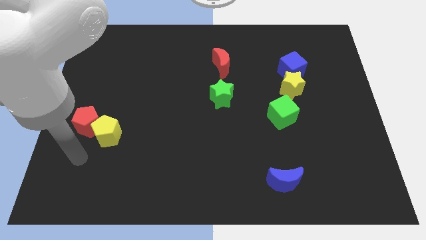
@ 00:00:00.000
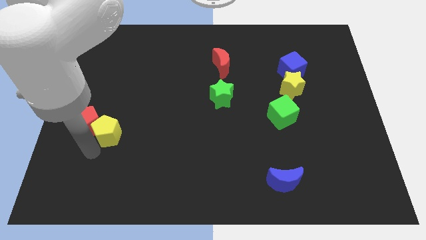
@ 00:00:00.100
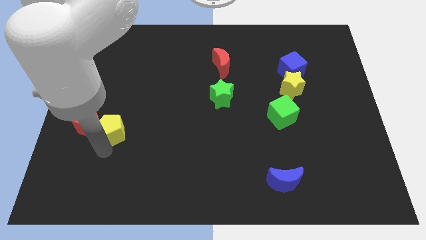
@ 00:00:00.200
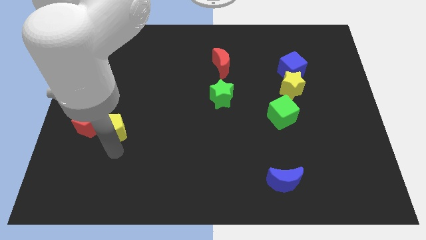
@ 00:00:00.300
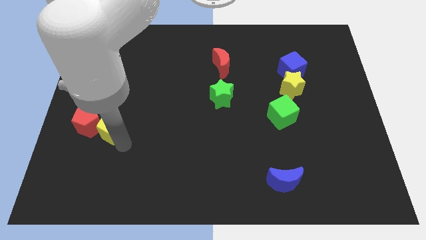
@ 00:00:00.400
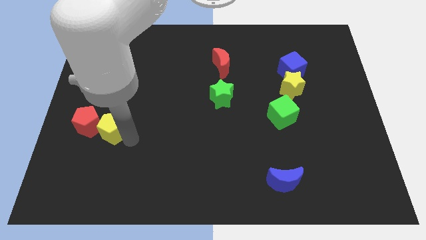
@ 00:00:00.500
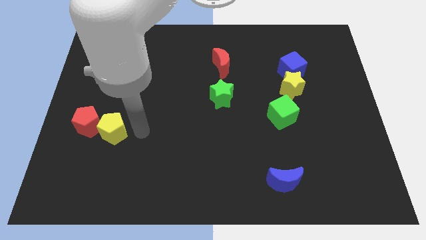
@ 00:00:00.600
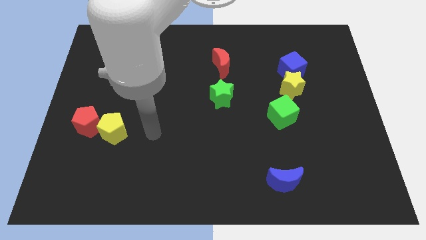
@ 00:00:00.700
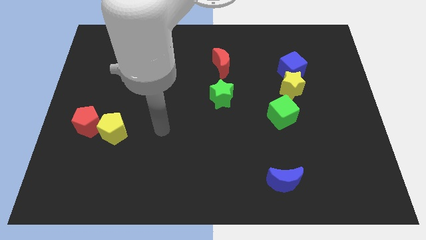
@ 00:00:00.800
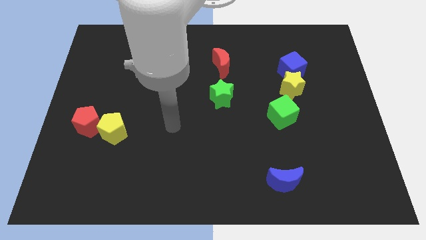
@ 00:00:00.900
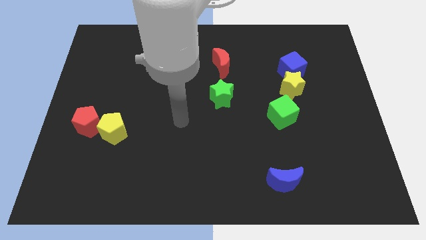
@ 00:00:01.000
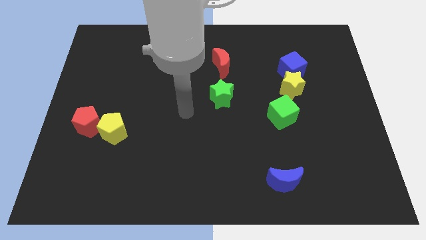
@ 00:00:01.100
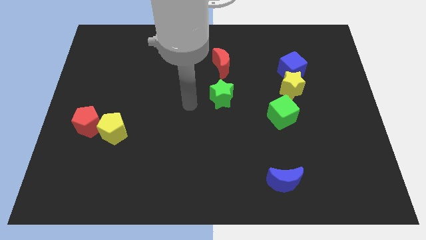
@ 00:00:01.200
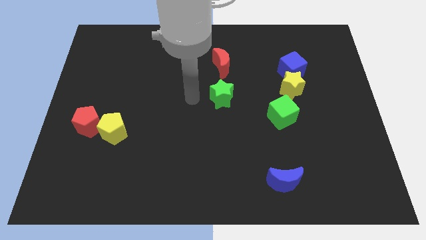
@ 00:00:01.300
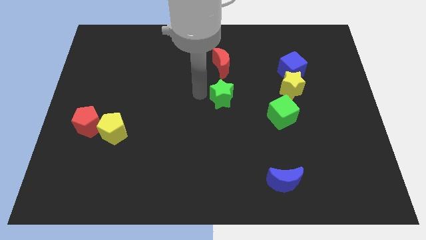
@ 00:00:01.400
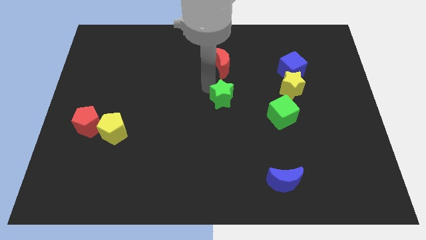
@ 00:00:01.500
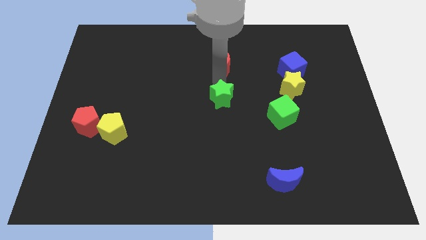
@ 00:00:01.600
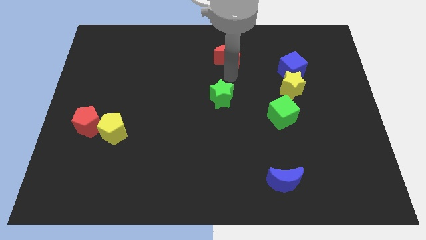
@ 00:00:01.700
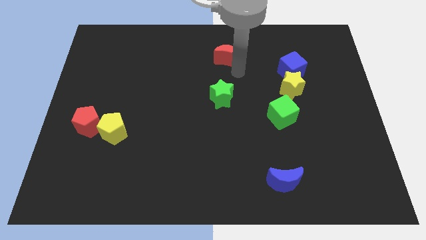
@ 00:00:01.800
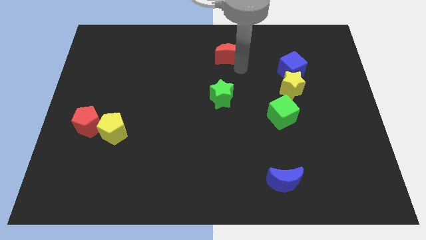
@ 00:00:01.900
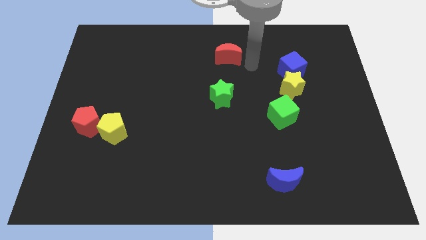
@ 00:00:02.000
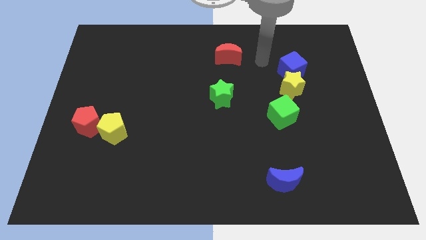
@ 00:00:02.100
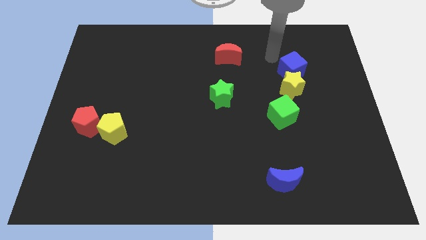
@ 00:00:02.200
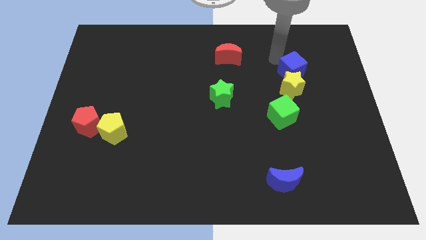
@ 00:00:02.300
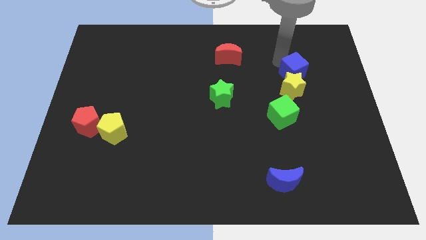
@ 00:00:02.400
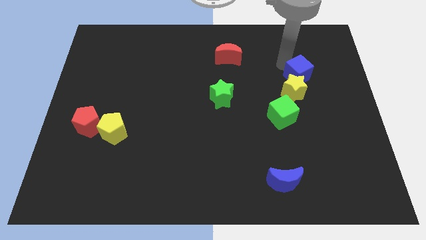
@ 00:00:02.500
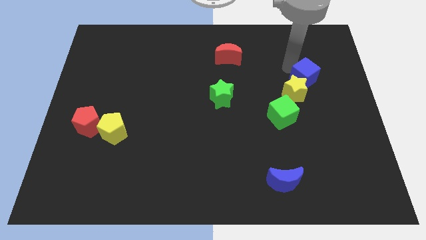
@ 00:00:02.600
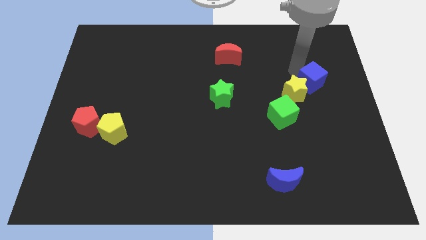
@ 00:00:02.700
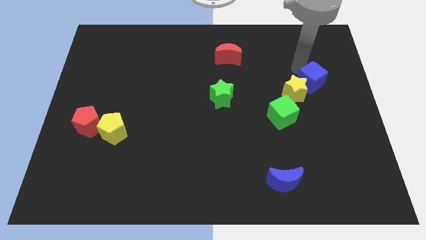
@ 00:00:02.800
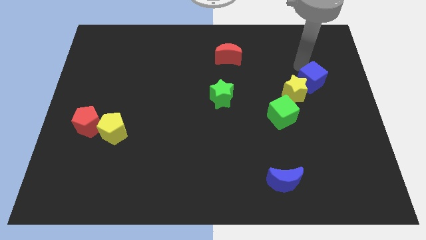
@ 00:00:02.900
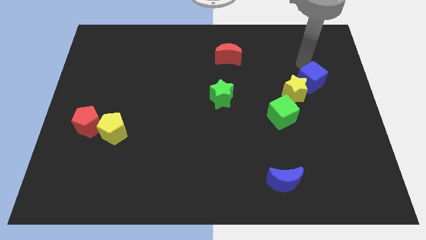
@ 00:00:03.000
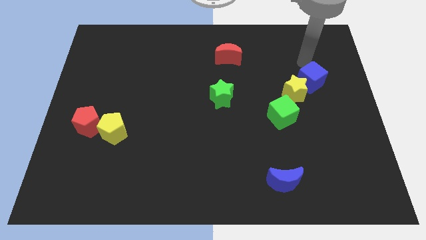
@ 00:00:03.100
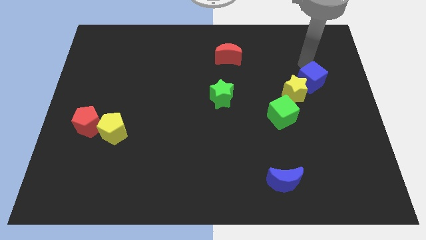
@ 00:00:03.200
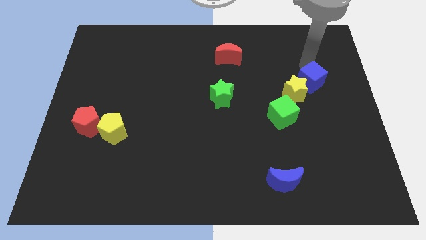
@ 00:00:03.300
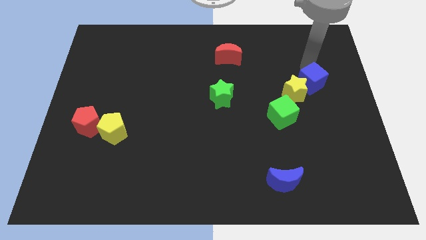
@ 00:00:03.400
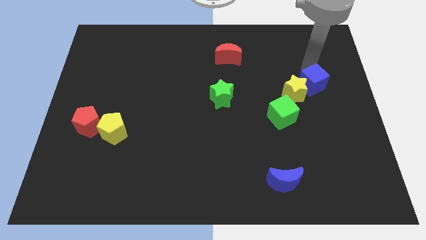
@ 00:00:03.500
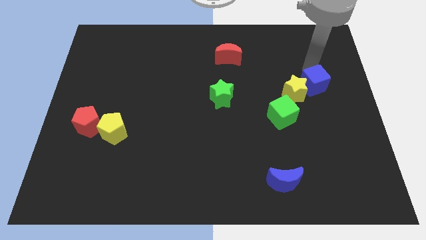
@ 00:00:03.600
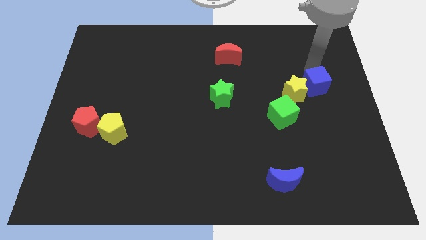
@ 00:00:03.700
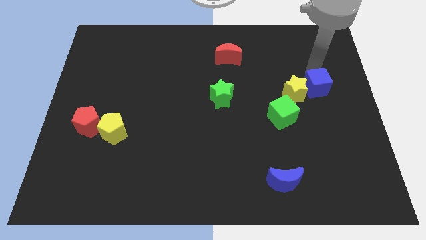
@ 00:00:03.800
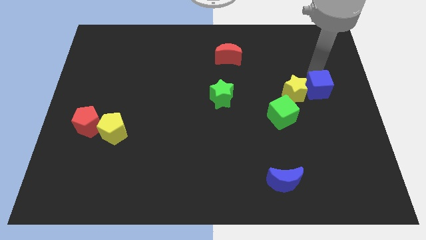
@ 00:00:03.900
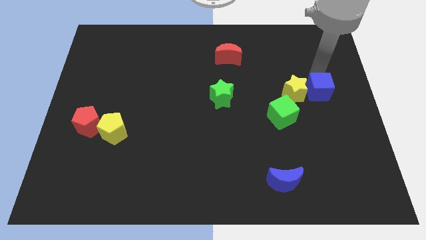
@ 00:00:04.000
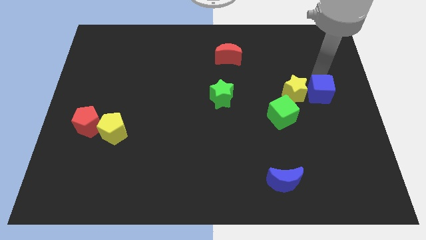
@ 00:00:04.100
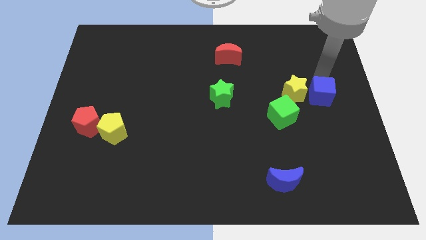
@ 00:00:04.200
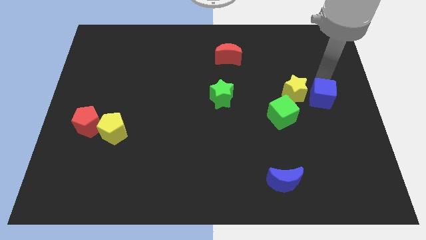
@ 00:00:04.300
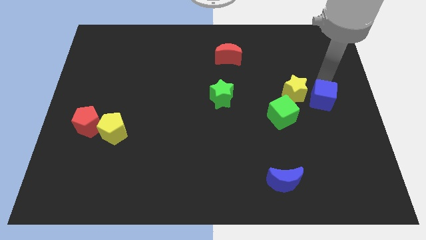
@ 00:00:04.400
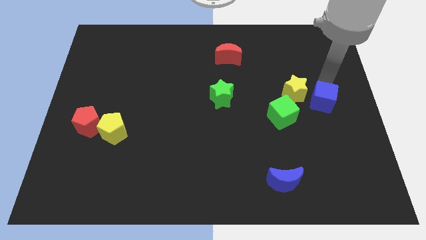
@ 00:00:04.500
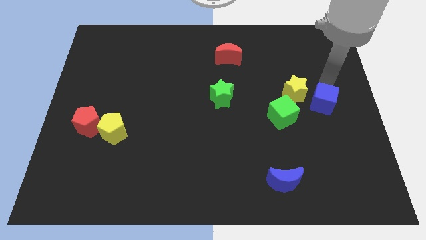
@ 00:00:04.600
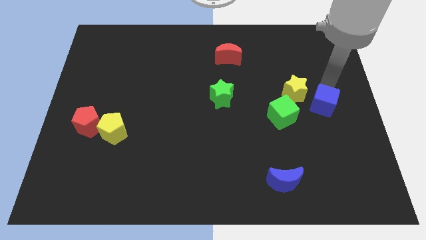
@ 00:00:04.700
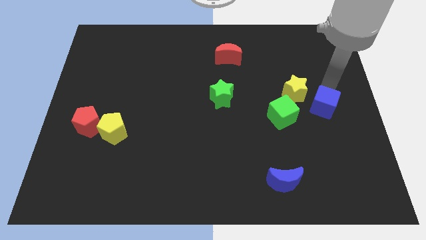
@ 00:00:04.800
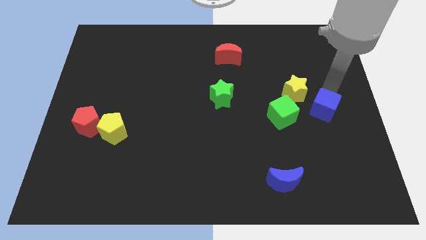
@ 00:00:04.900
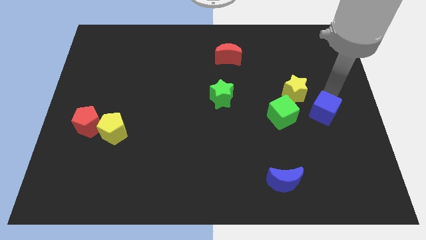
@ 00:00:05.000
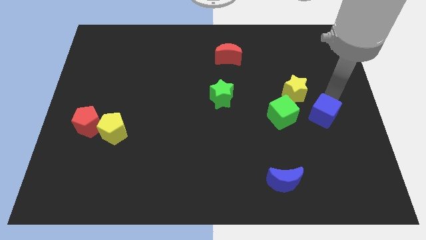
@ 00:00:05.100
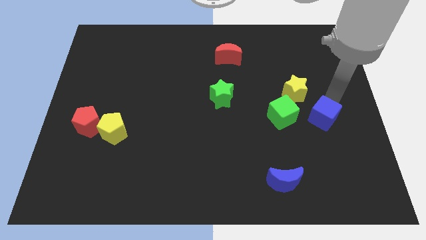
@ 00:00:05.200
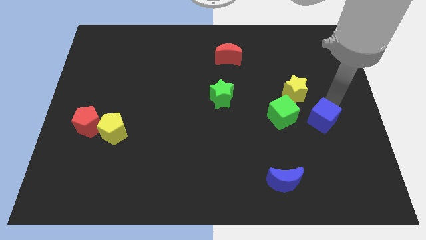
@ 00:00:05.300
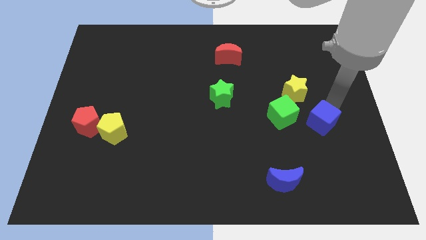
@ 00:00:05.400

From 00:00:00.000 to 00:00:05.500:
move the blue cube to the bottom side of the yellow star

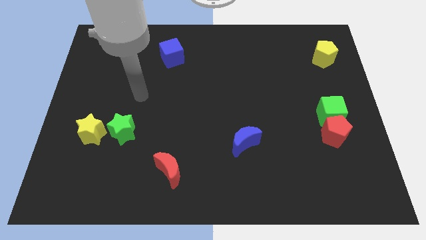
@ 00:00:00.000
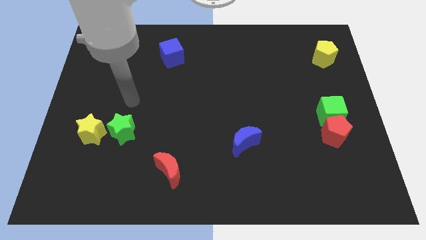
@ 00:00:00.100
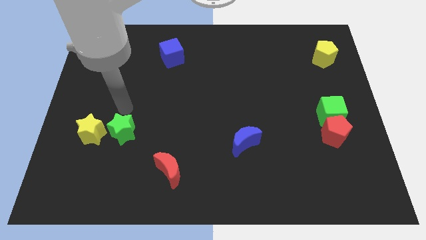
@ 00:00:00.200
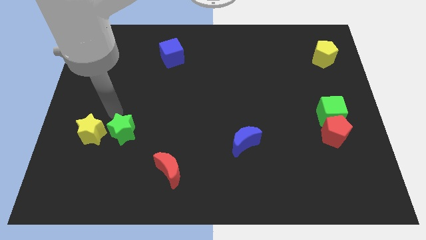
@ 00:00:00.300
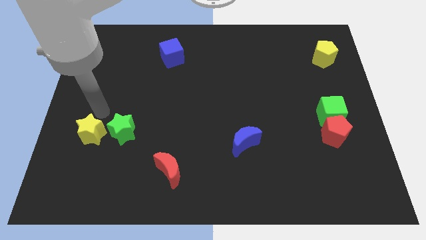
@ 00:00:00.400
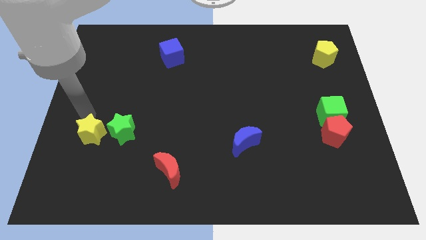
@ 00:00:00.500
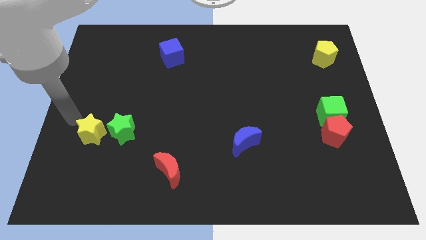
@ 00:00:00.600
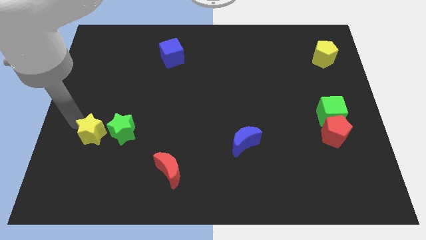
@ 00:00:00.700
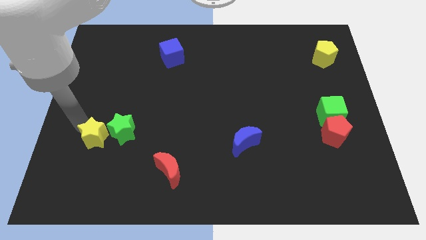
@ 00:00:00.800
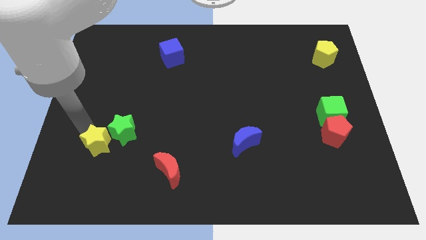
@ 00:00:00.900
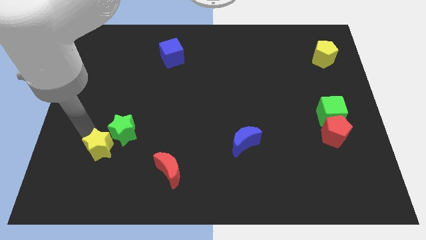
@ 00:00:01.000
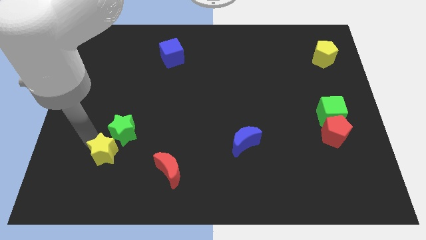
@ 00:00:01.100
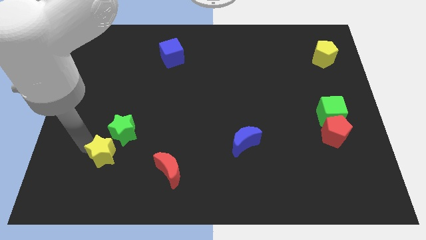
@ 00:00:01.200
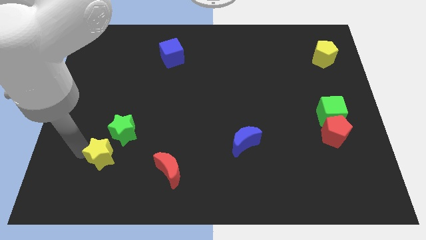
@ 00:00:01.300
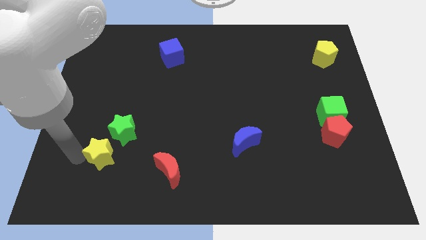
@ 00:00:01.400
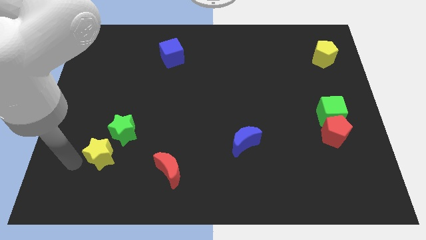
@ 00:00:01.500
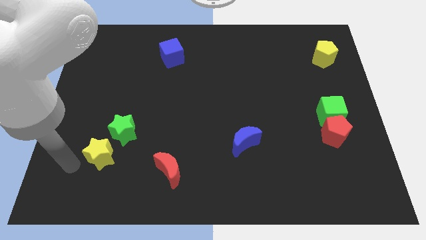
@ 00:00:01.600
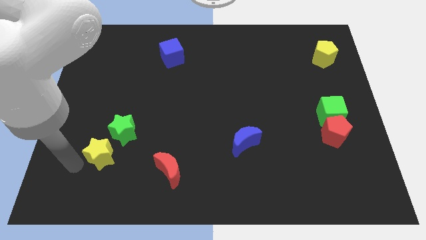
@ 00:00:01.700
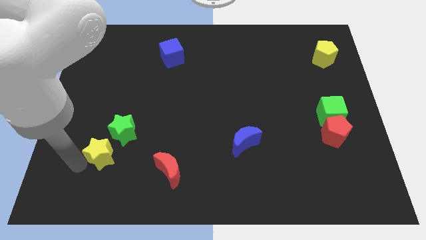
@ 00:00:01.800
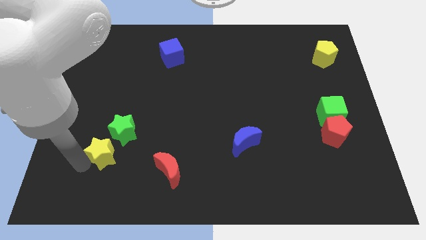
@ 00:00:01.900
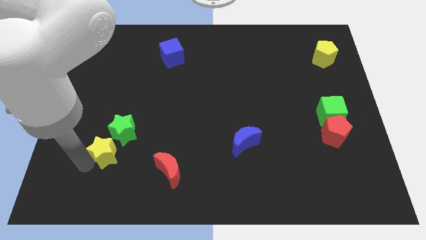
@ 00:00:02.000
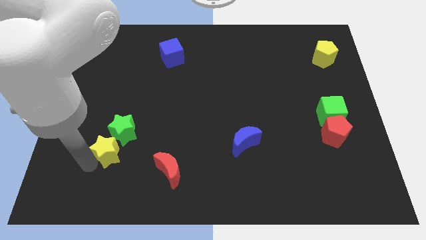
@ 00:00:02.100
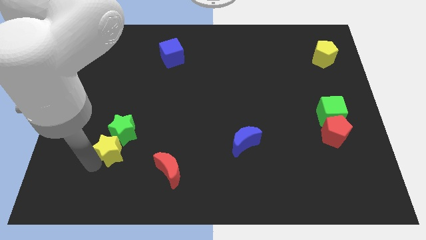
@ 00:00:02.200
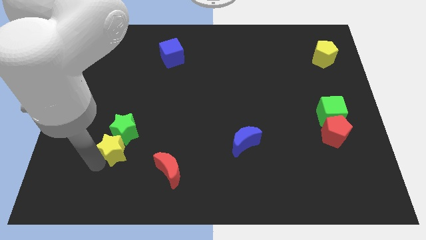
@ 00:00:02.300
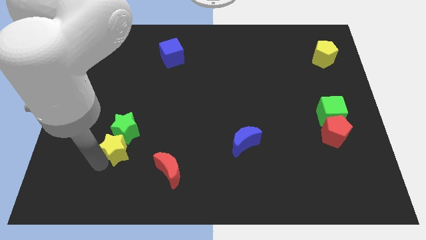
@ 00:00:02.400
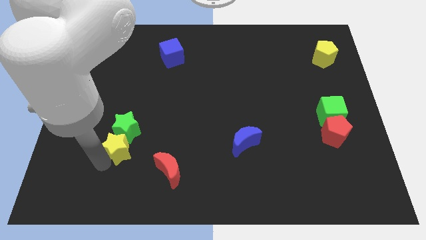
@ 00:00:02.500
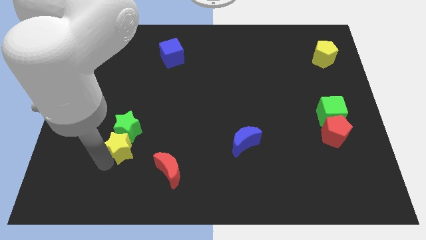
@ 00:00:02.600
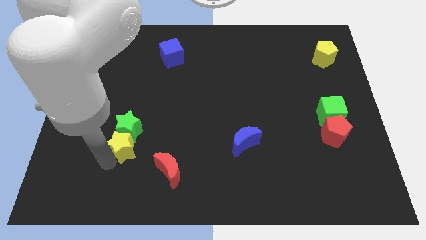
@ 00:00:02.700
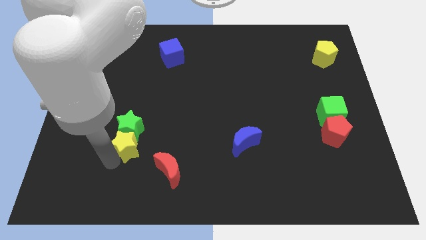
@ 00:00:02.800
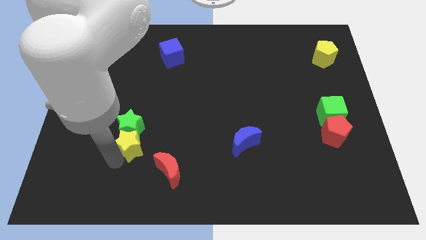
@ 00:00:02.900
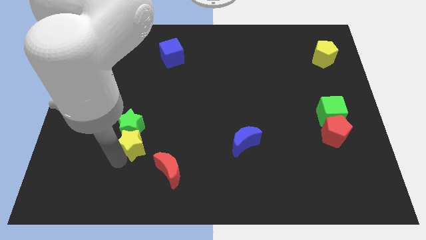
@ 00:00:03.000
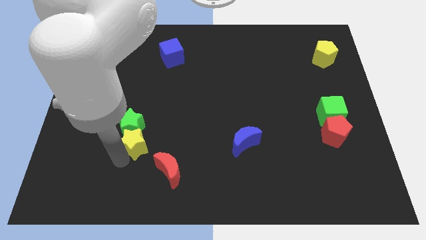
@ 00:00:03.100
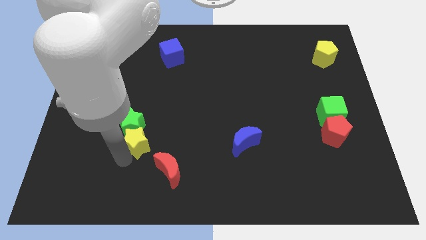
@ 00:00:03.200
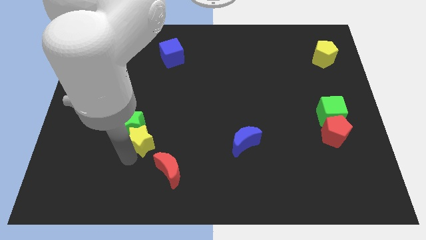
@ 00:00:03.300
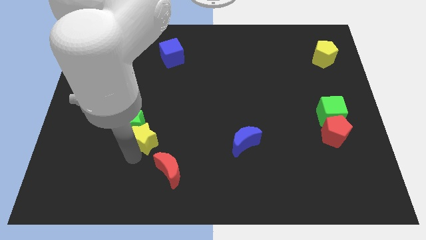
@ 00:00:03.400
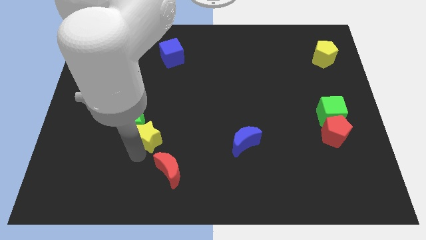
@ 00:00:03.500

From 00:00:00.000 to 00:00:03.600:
put the yellow star to the right of the green star
